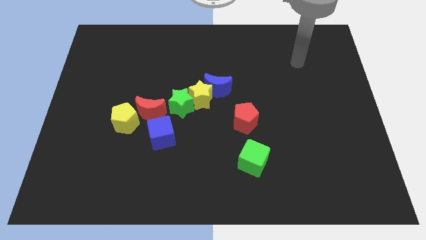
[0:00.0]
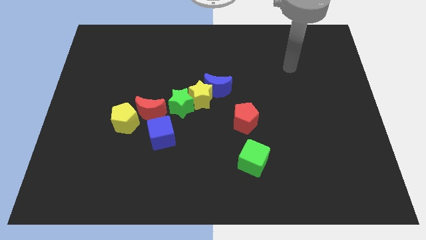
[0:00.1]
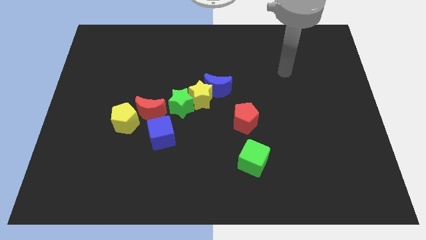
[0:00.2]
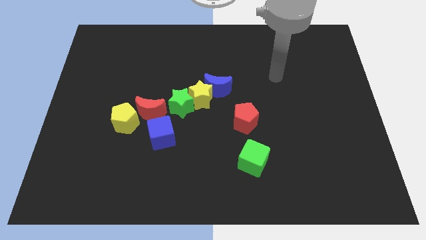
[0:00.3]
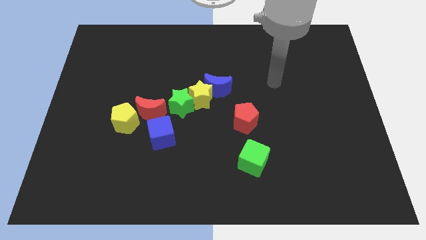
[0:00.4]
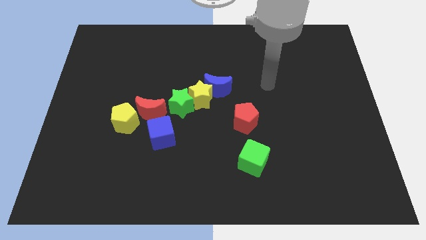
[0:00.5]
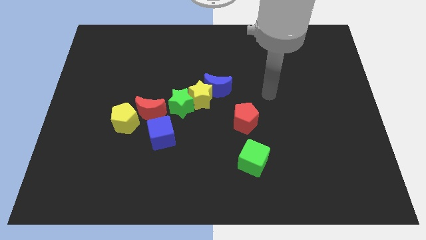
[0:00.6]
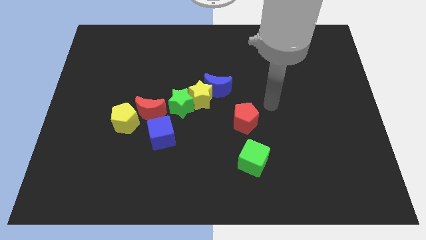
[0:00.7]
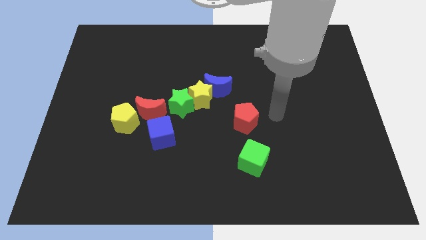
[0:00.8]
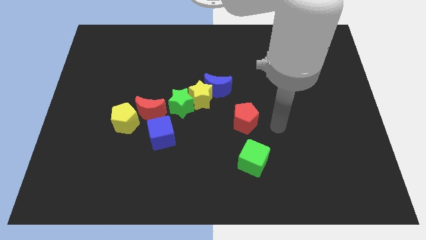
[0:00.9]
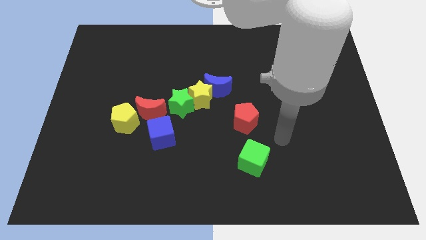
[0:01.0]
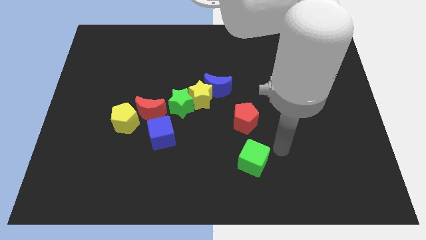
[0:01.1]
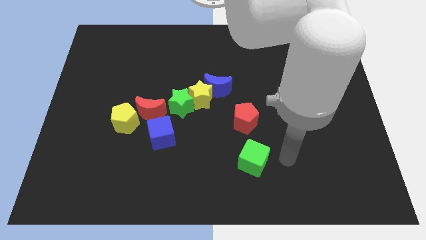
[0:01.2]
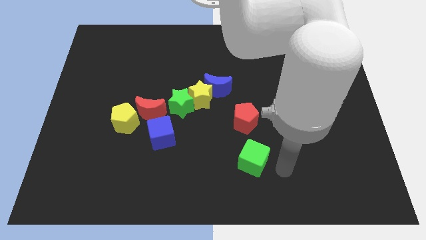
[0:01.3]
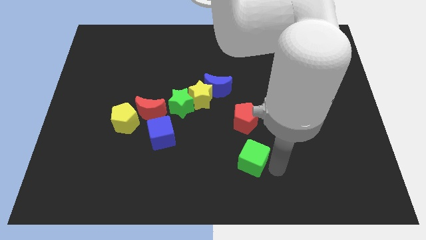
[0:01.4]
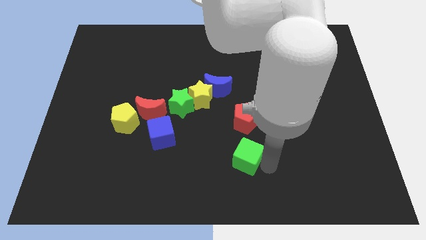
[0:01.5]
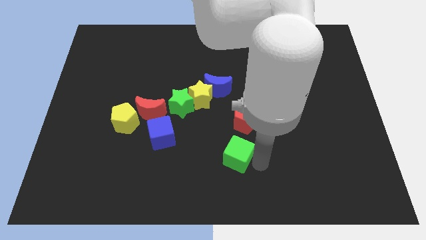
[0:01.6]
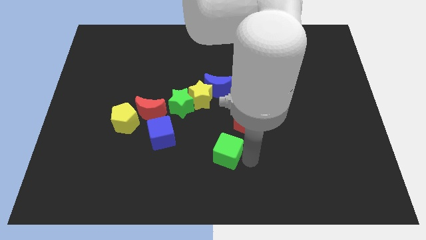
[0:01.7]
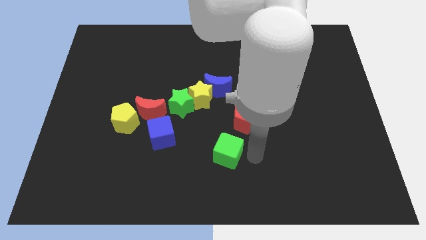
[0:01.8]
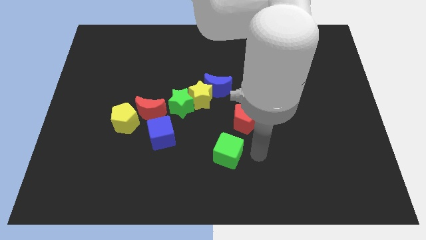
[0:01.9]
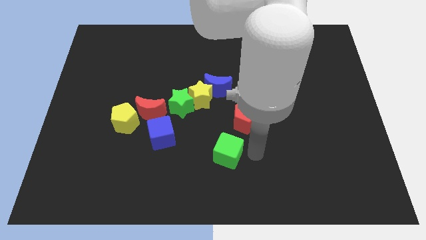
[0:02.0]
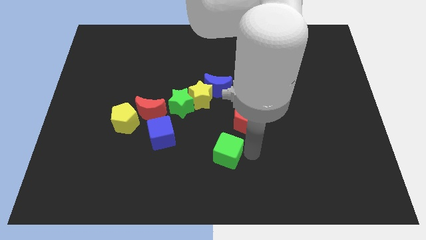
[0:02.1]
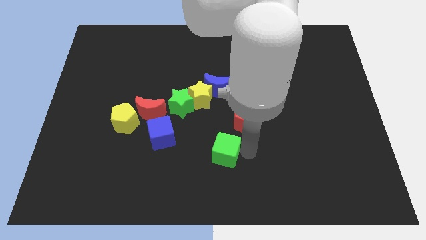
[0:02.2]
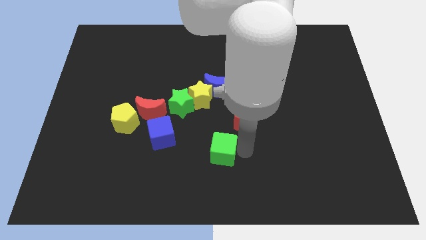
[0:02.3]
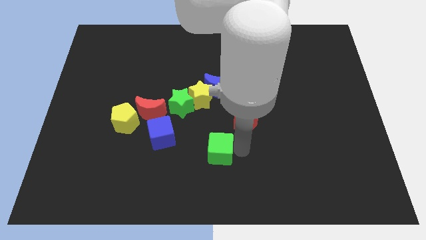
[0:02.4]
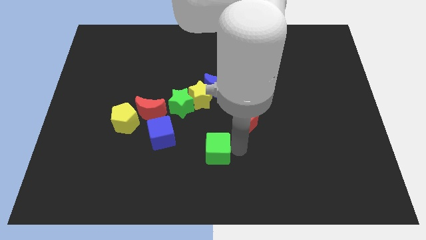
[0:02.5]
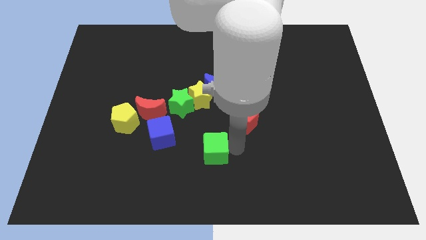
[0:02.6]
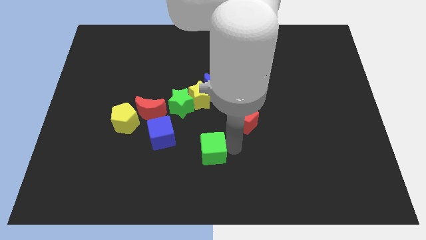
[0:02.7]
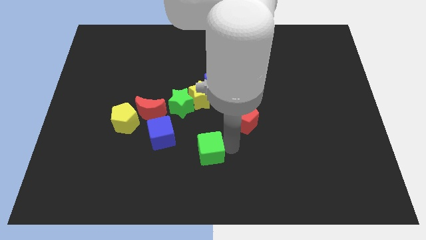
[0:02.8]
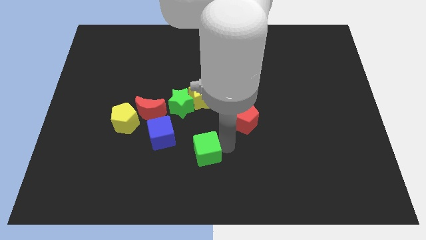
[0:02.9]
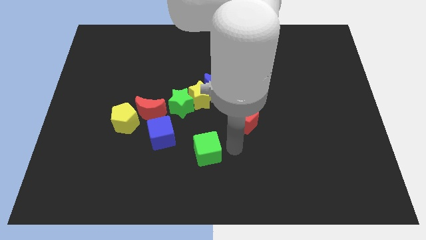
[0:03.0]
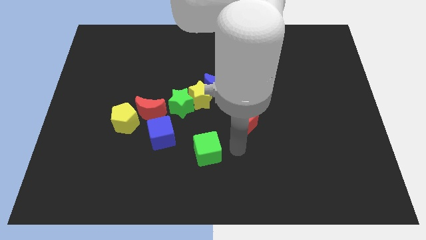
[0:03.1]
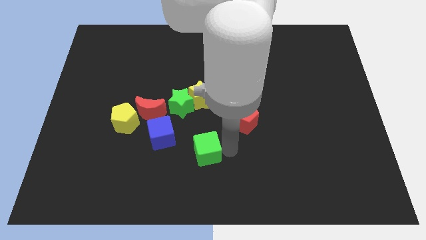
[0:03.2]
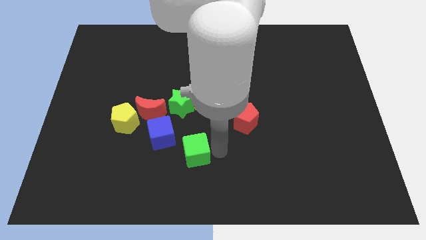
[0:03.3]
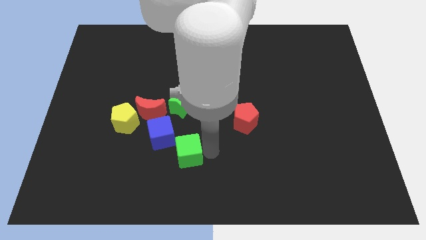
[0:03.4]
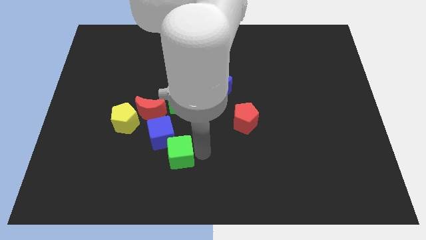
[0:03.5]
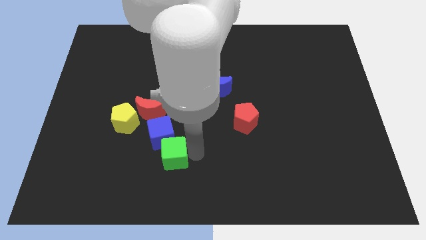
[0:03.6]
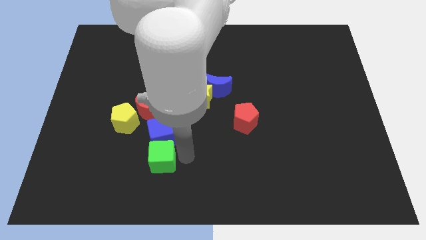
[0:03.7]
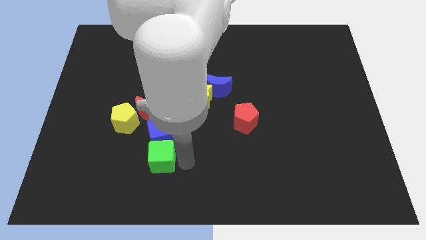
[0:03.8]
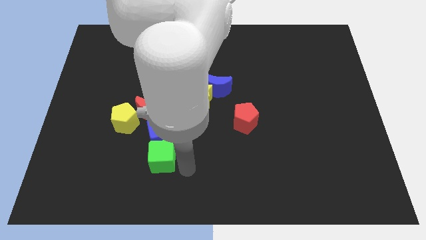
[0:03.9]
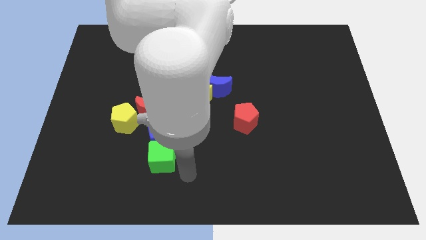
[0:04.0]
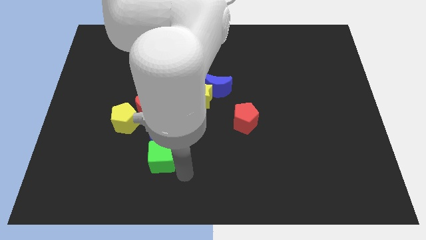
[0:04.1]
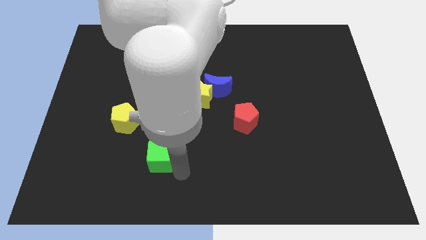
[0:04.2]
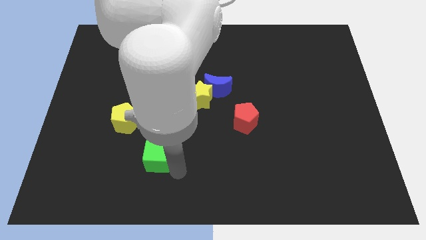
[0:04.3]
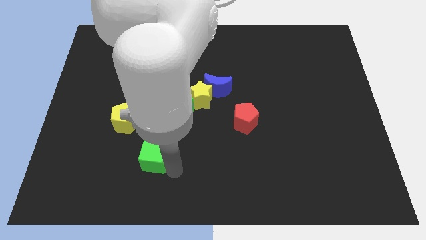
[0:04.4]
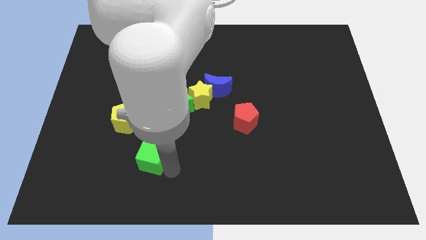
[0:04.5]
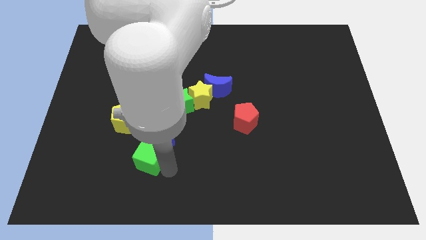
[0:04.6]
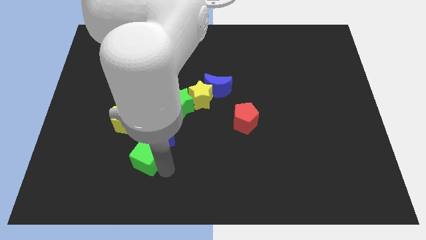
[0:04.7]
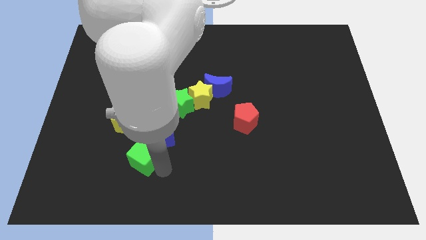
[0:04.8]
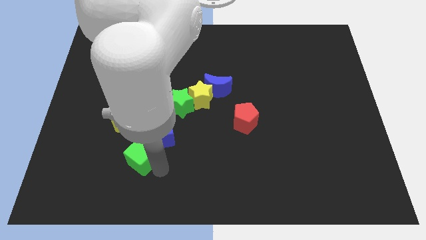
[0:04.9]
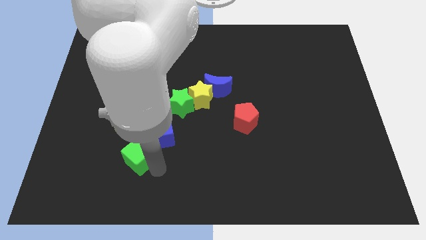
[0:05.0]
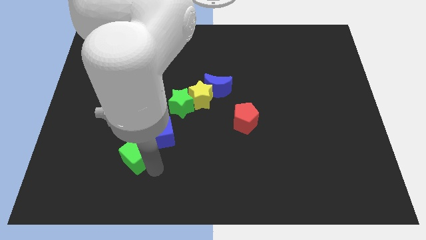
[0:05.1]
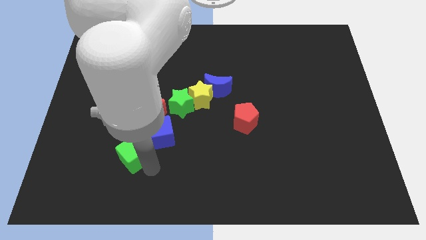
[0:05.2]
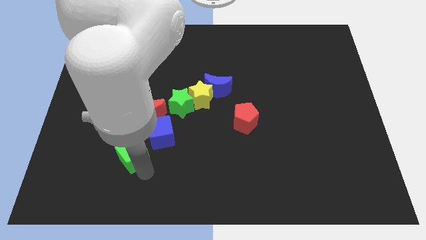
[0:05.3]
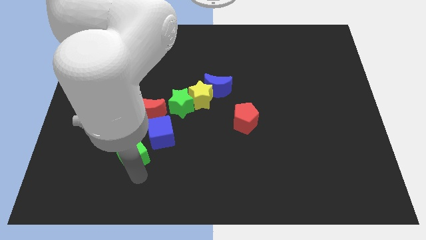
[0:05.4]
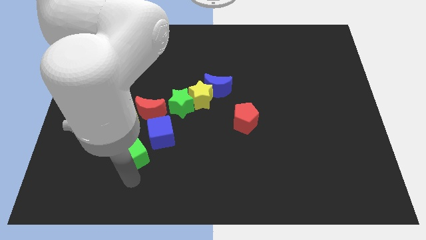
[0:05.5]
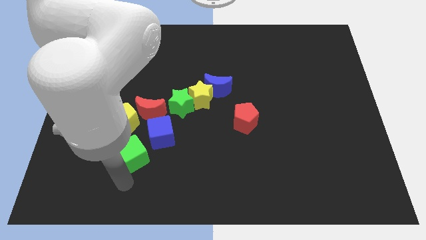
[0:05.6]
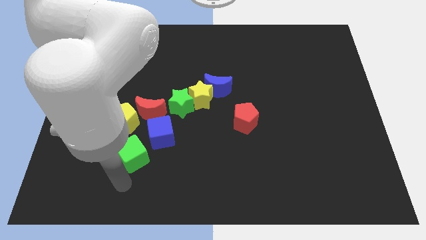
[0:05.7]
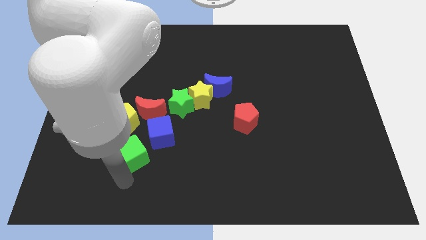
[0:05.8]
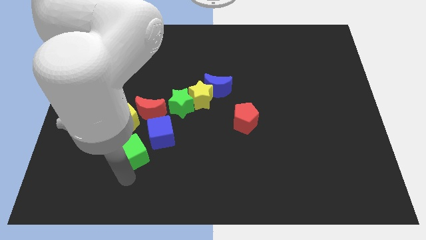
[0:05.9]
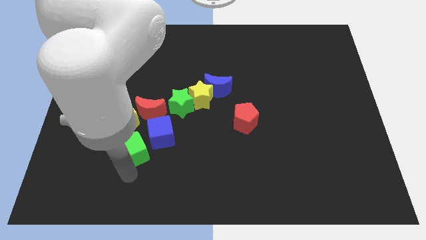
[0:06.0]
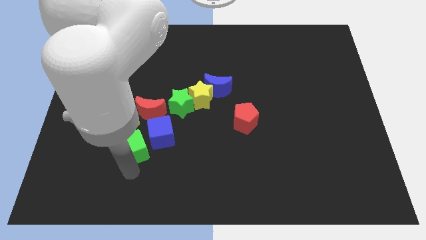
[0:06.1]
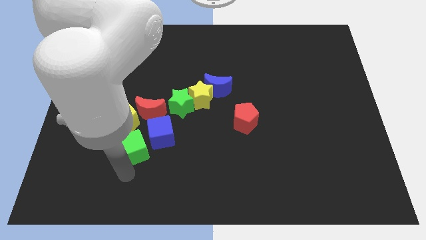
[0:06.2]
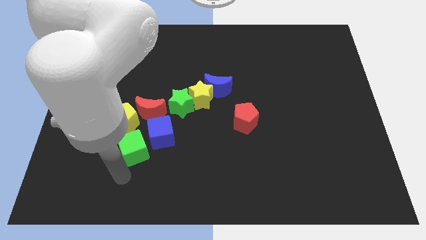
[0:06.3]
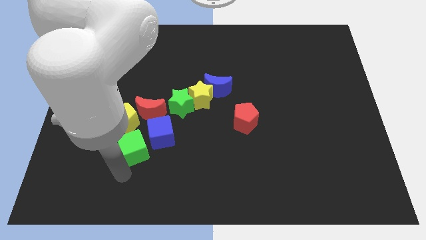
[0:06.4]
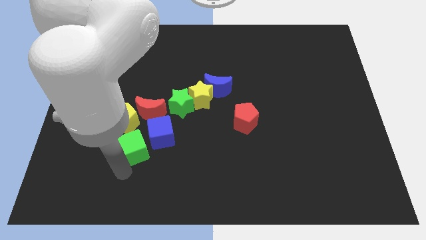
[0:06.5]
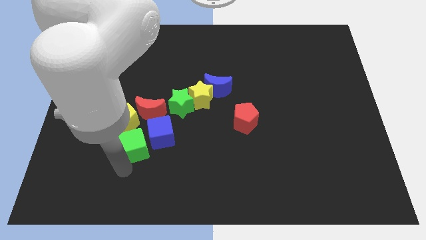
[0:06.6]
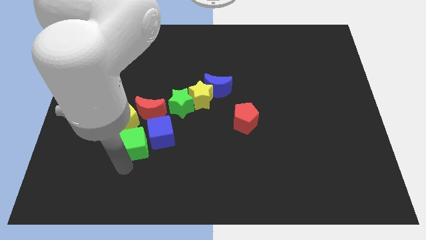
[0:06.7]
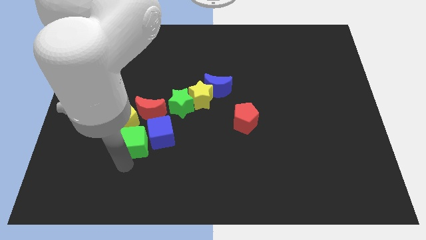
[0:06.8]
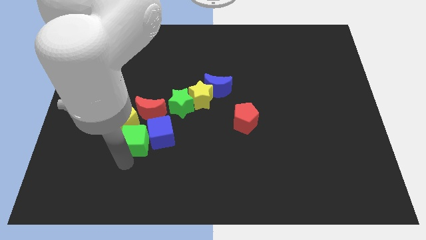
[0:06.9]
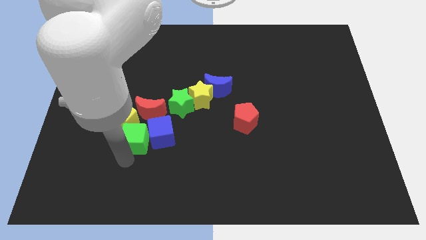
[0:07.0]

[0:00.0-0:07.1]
slide the green cube close to the yellow pentagon

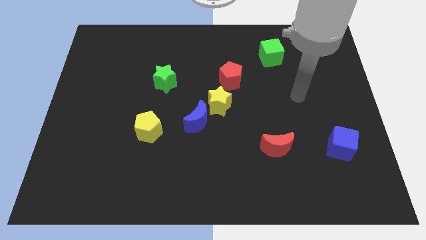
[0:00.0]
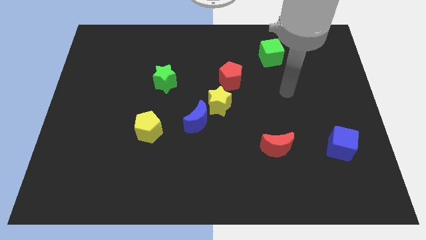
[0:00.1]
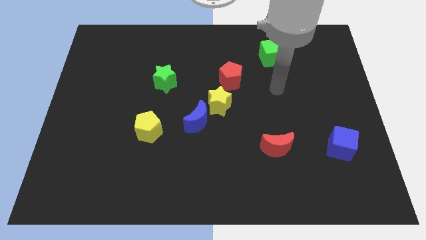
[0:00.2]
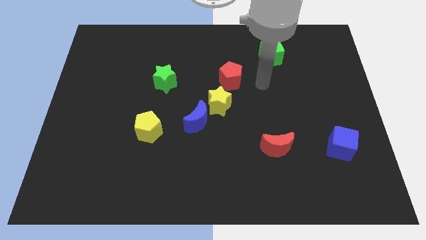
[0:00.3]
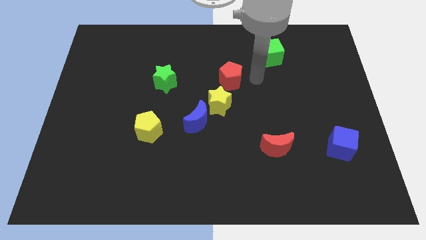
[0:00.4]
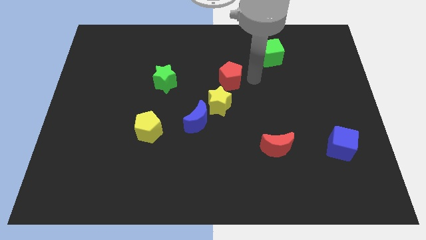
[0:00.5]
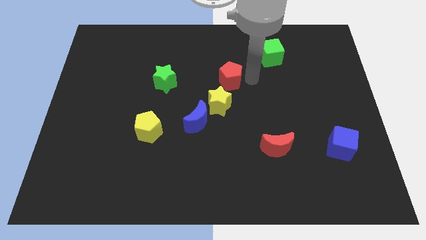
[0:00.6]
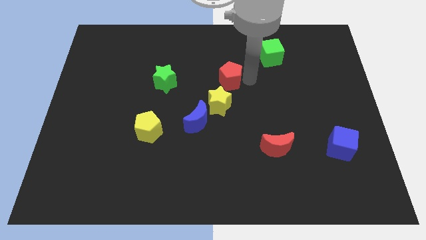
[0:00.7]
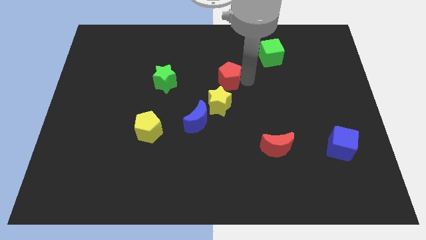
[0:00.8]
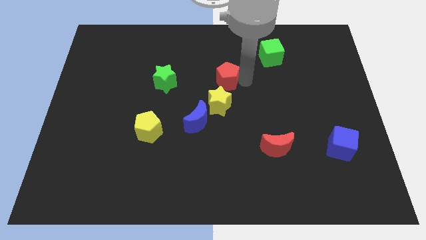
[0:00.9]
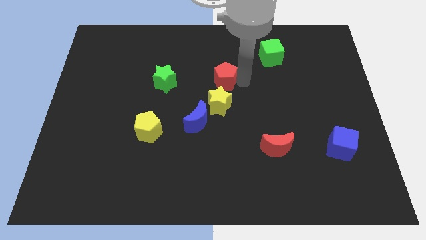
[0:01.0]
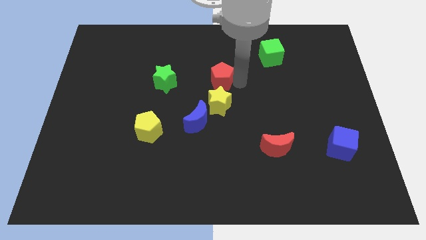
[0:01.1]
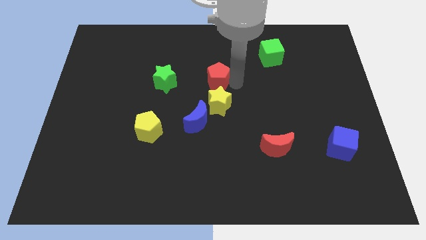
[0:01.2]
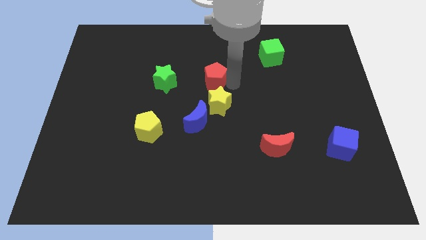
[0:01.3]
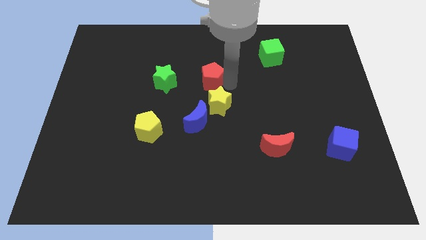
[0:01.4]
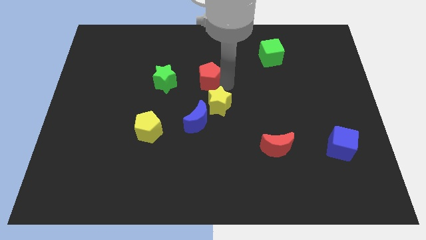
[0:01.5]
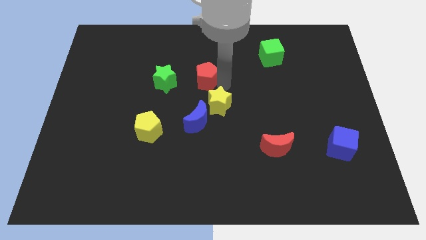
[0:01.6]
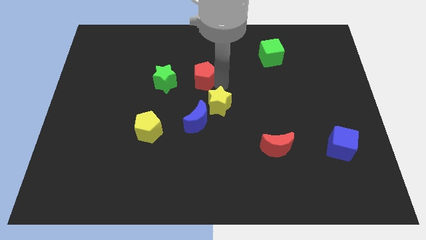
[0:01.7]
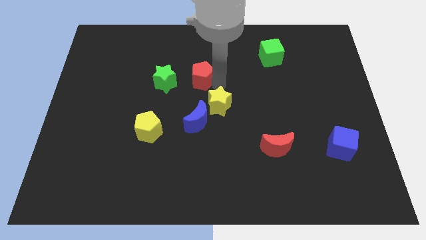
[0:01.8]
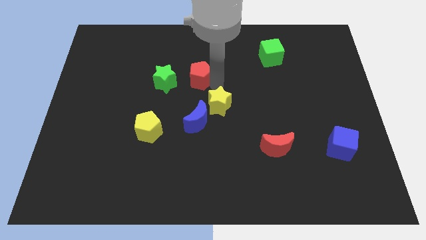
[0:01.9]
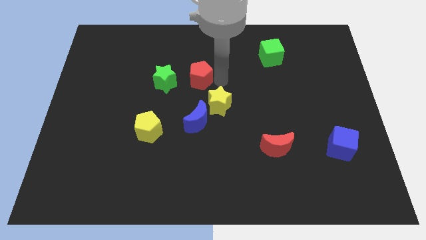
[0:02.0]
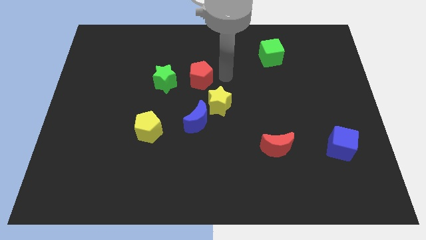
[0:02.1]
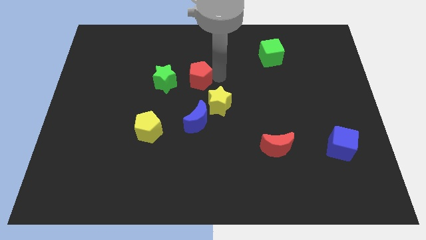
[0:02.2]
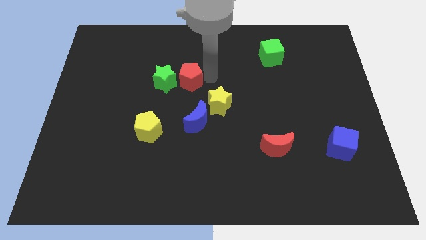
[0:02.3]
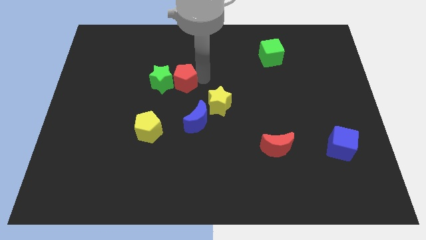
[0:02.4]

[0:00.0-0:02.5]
put the red pentagon next to the green star
